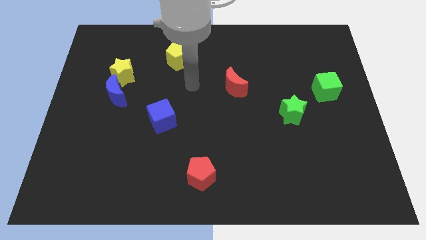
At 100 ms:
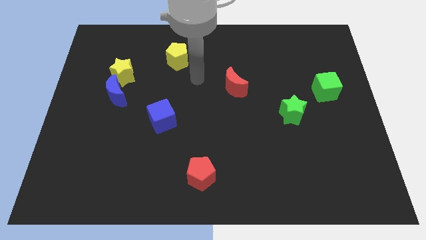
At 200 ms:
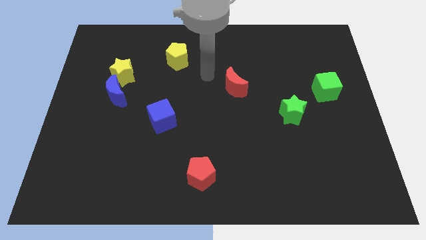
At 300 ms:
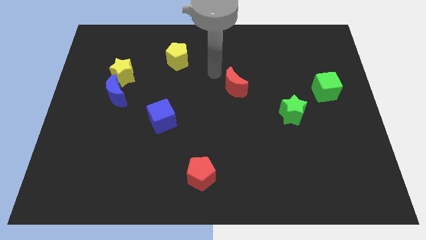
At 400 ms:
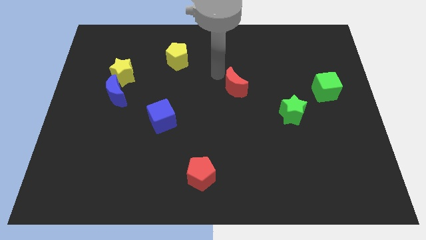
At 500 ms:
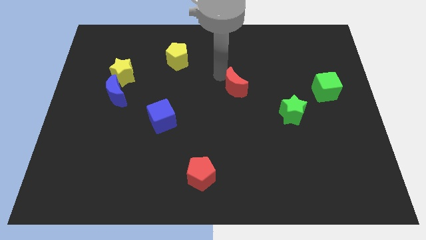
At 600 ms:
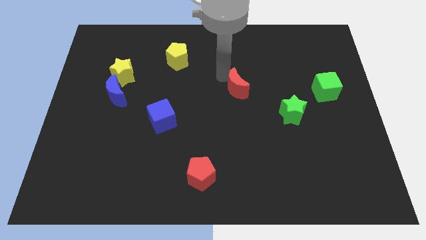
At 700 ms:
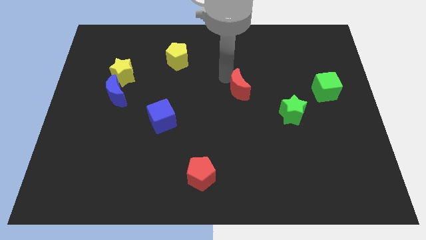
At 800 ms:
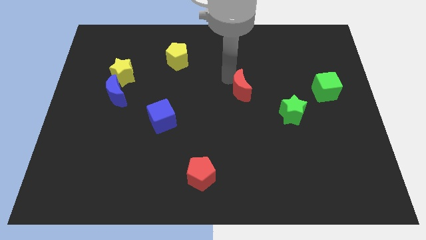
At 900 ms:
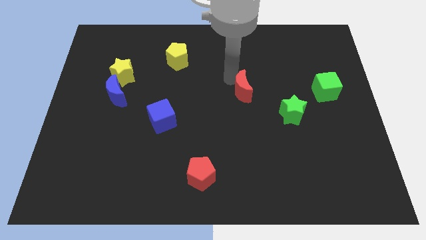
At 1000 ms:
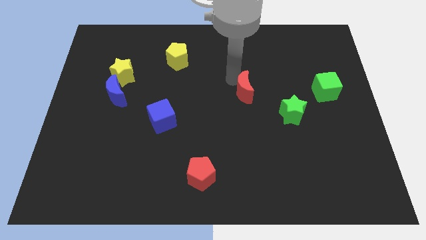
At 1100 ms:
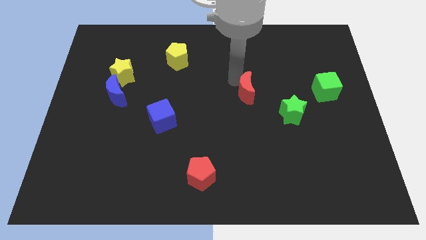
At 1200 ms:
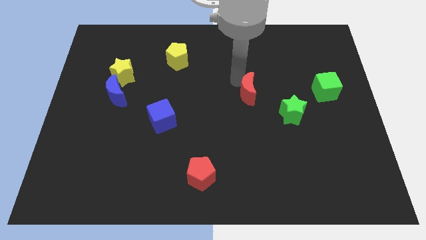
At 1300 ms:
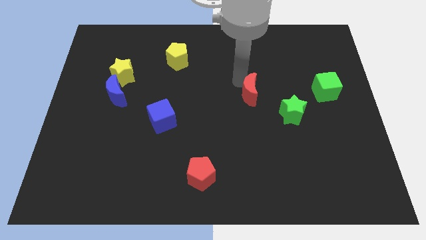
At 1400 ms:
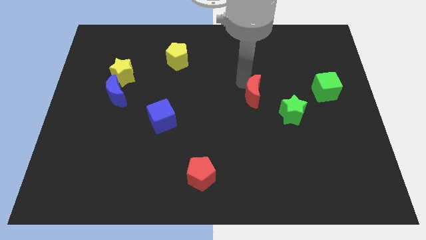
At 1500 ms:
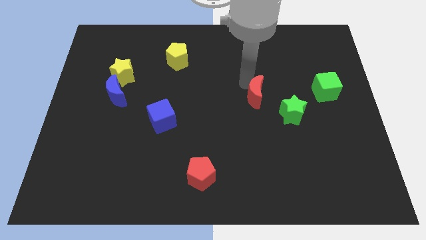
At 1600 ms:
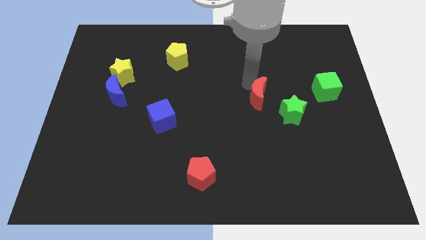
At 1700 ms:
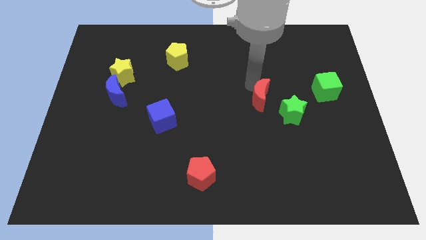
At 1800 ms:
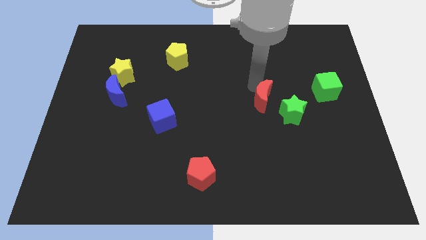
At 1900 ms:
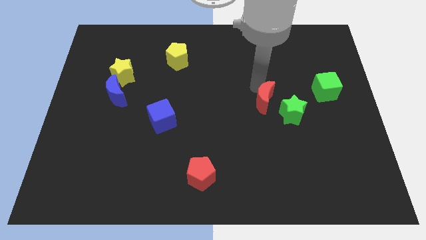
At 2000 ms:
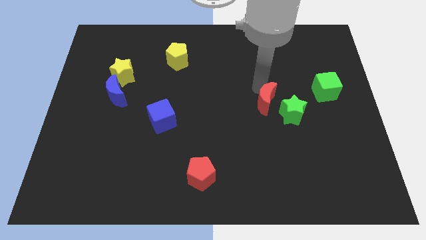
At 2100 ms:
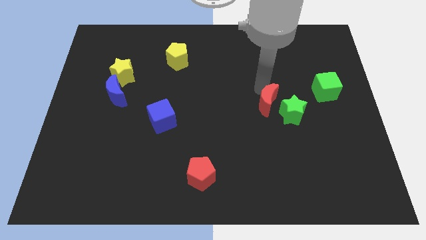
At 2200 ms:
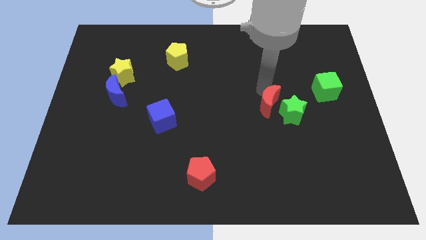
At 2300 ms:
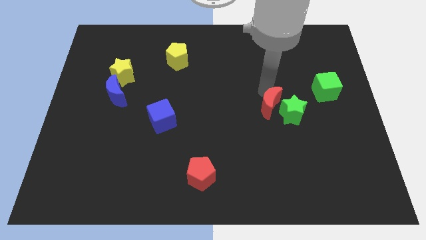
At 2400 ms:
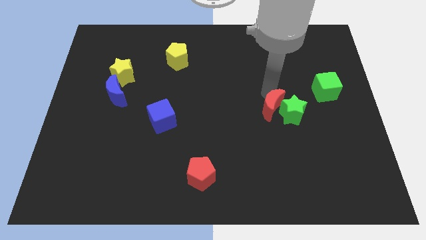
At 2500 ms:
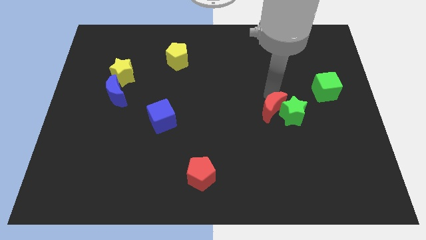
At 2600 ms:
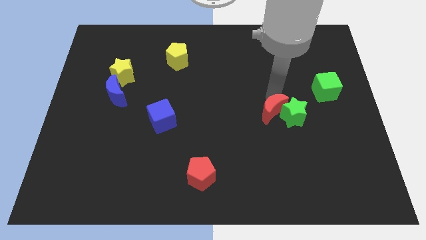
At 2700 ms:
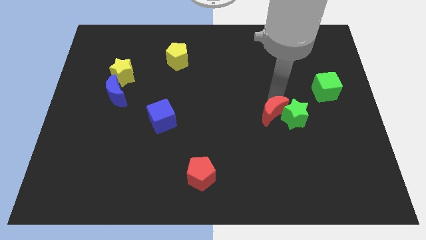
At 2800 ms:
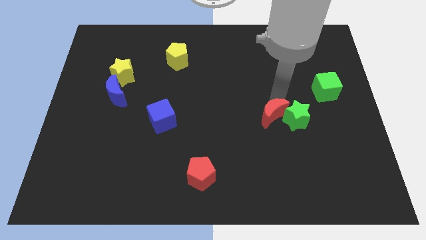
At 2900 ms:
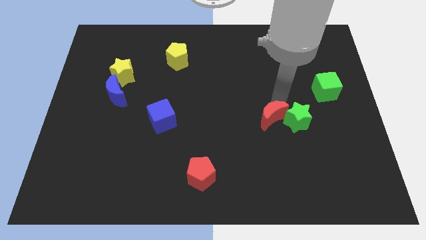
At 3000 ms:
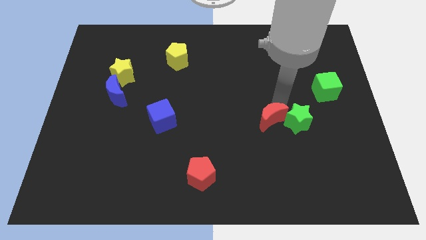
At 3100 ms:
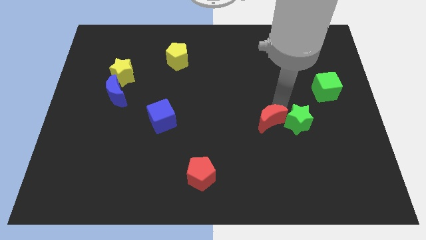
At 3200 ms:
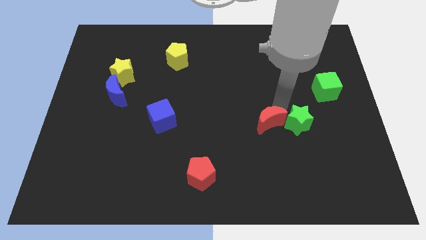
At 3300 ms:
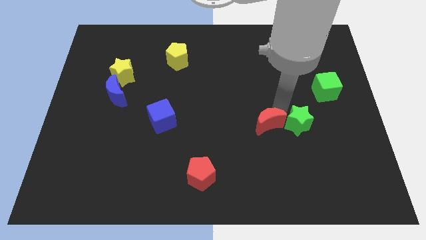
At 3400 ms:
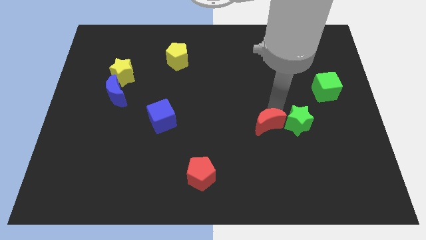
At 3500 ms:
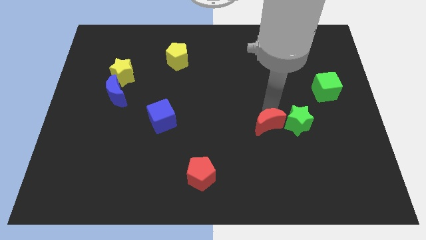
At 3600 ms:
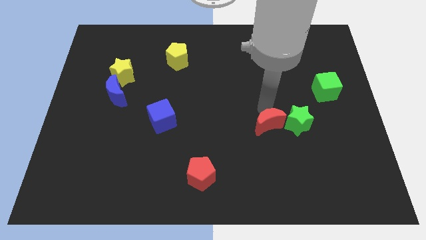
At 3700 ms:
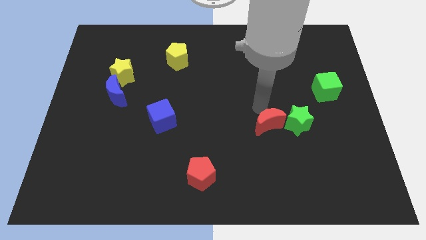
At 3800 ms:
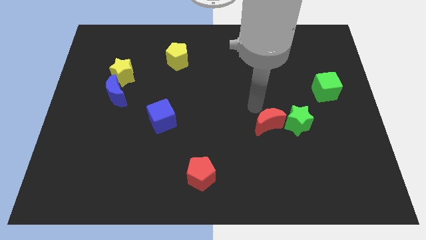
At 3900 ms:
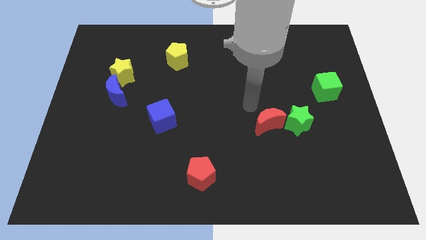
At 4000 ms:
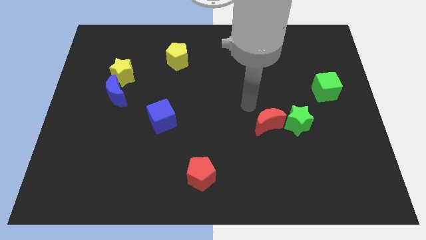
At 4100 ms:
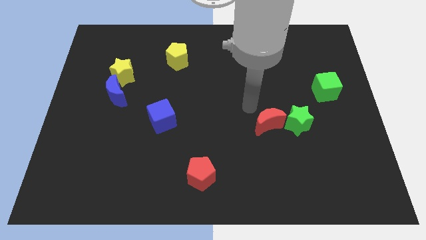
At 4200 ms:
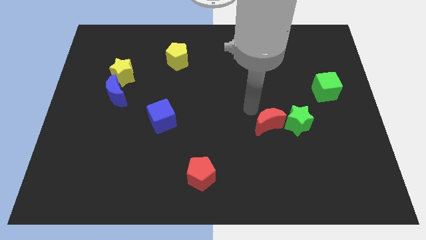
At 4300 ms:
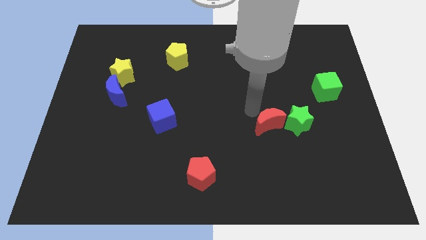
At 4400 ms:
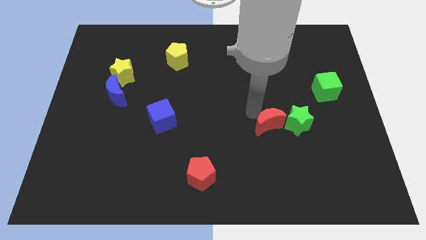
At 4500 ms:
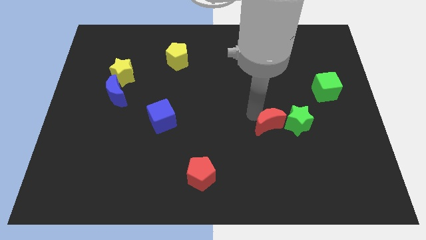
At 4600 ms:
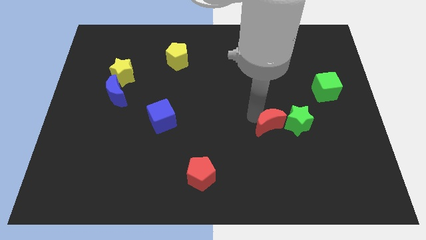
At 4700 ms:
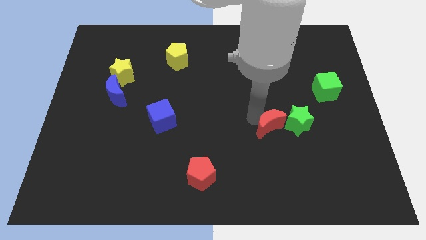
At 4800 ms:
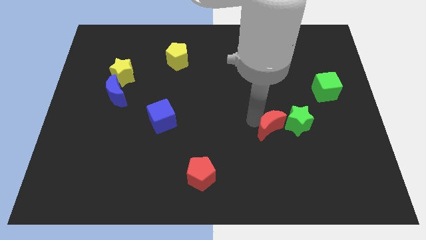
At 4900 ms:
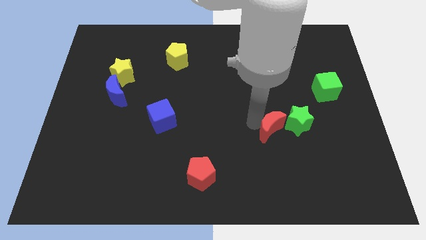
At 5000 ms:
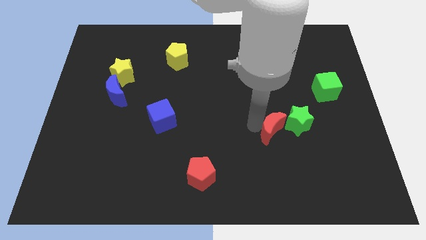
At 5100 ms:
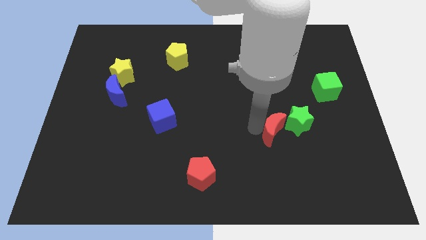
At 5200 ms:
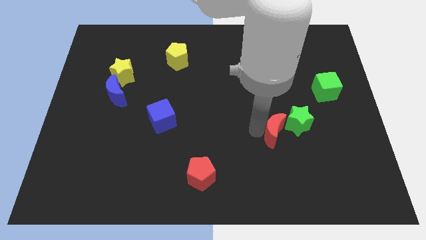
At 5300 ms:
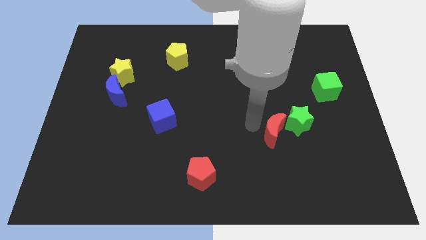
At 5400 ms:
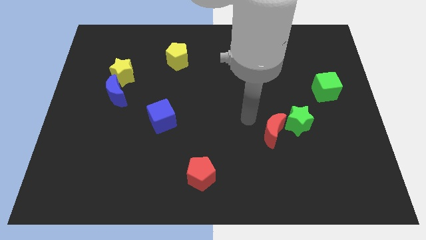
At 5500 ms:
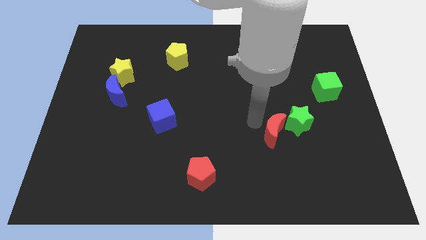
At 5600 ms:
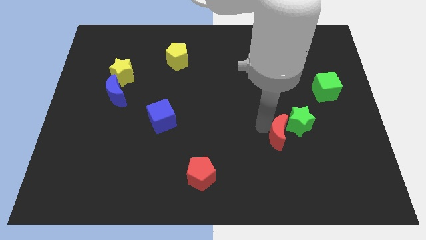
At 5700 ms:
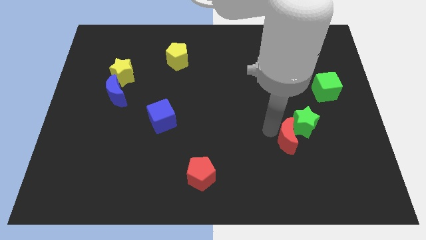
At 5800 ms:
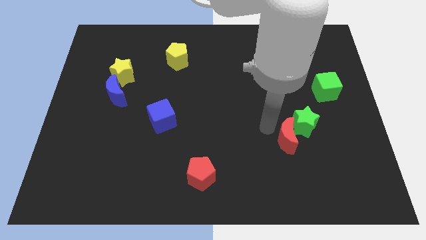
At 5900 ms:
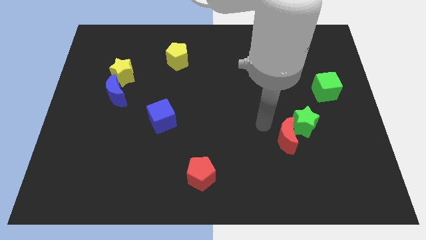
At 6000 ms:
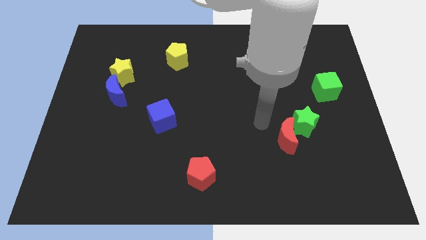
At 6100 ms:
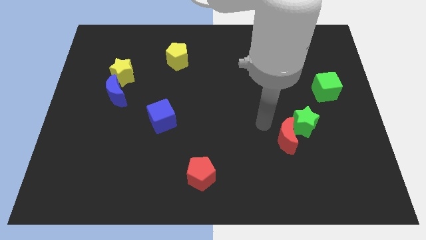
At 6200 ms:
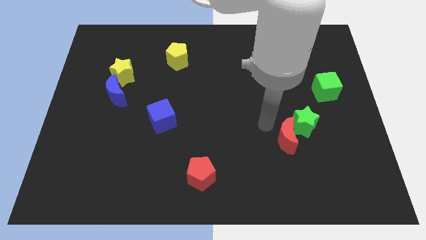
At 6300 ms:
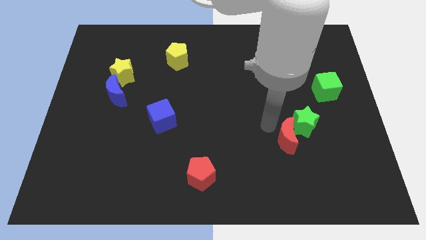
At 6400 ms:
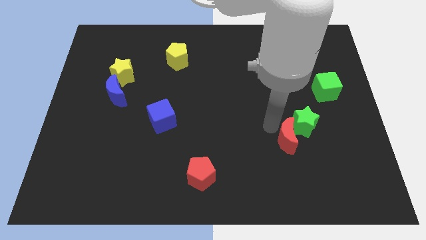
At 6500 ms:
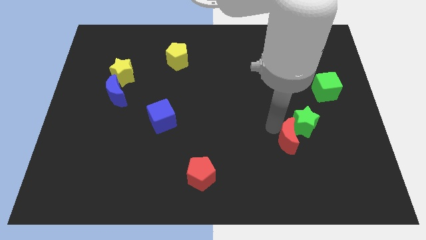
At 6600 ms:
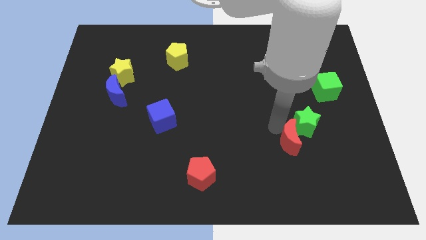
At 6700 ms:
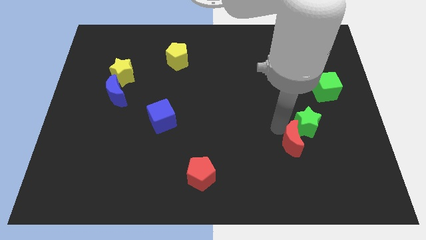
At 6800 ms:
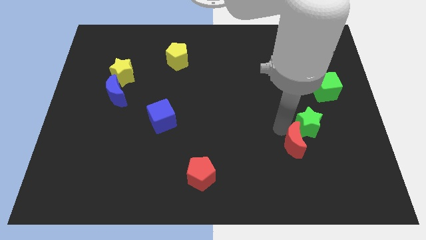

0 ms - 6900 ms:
move the red moon down and then to the right

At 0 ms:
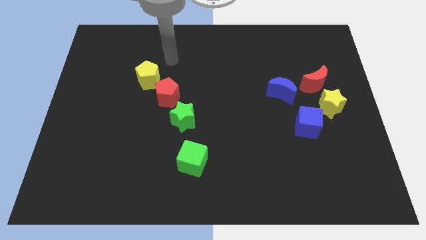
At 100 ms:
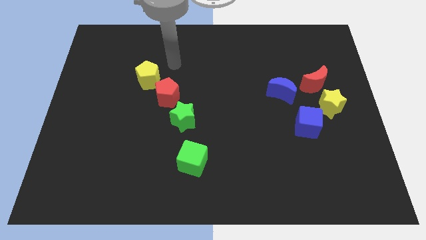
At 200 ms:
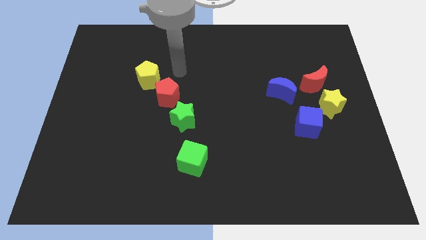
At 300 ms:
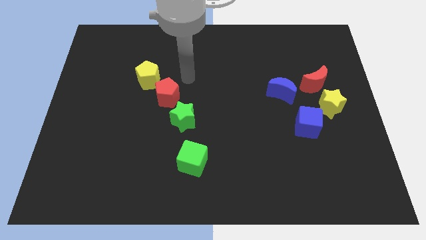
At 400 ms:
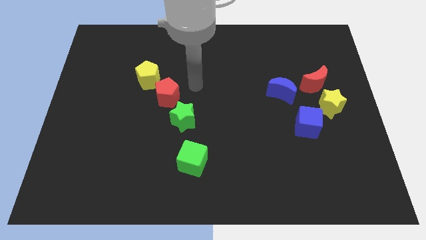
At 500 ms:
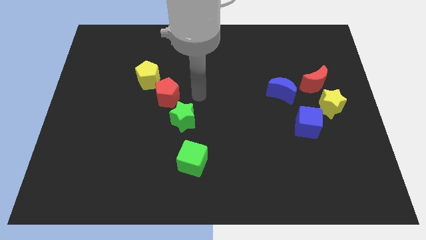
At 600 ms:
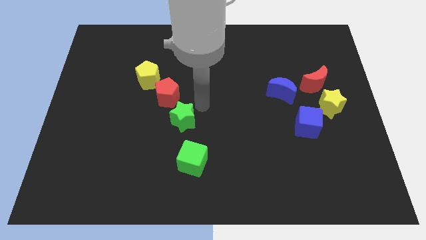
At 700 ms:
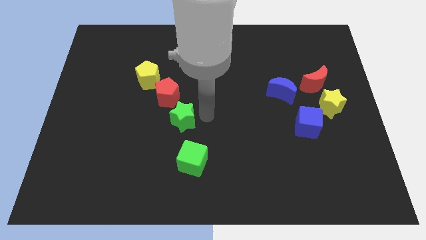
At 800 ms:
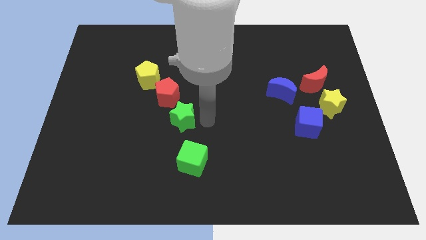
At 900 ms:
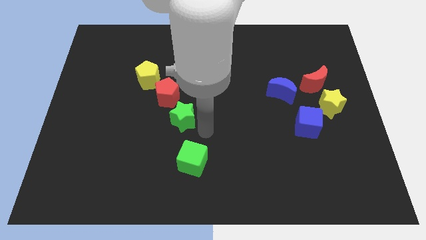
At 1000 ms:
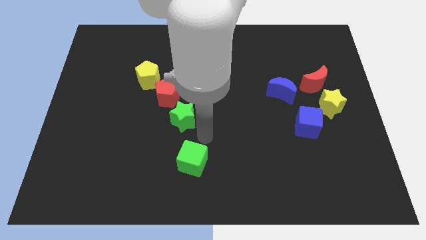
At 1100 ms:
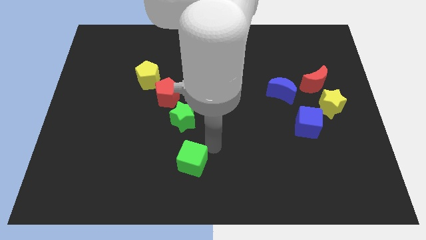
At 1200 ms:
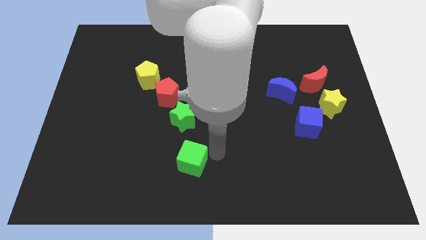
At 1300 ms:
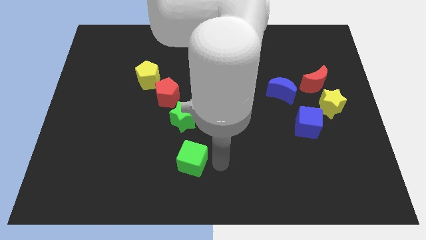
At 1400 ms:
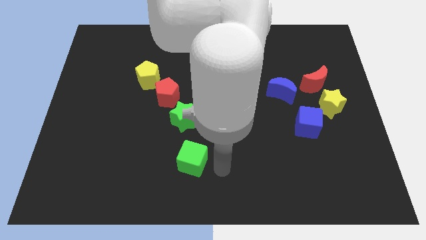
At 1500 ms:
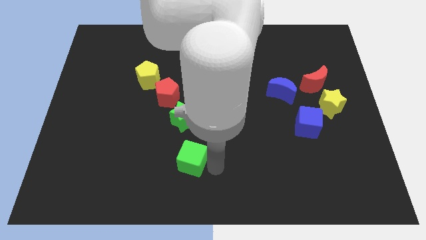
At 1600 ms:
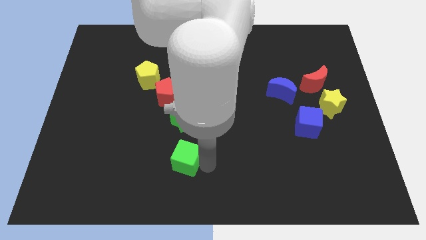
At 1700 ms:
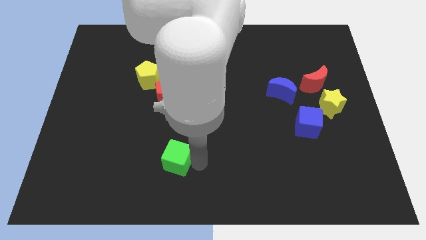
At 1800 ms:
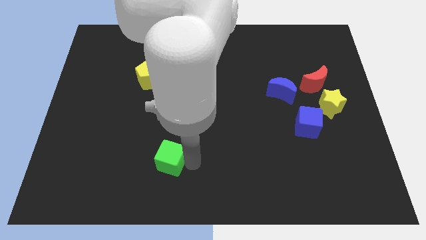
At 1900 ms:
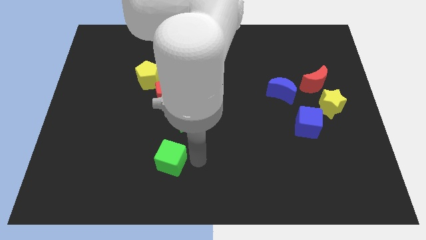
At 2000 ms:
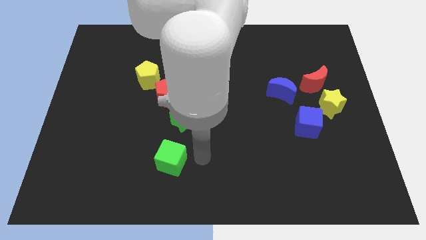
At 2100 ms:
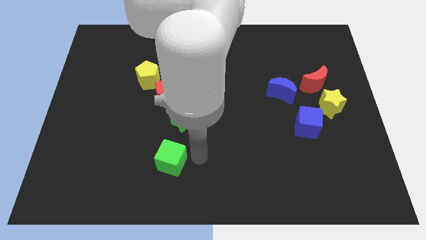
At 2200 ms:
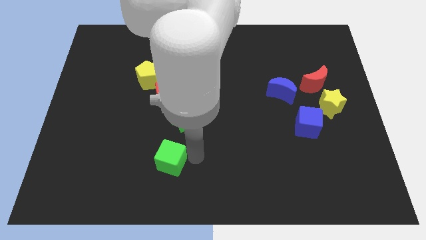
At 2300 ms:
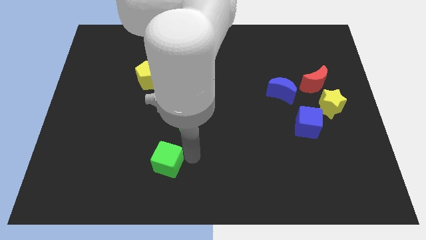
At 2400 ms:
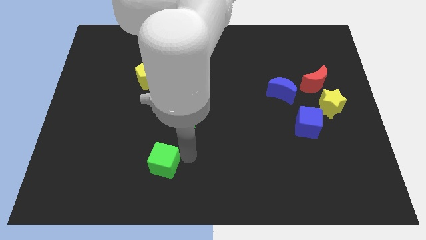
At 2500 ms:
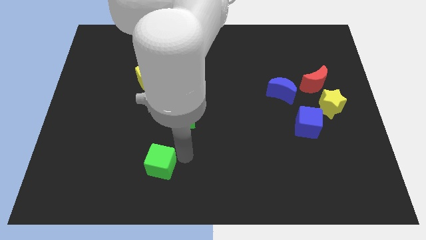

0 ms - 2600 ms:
slightly move the green cube left
